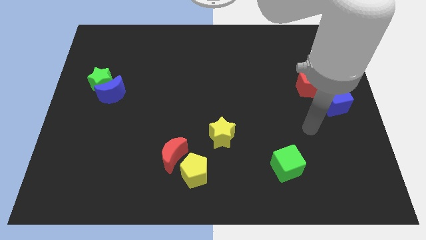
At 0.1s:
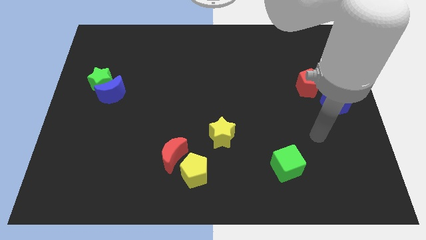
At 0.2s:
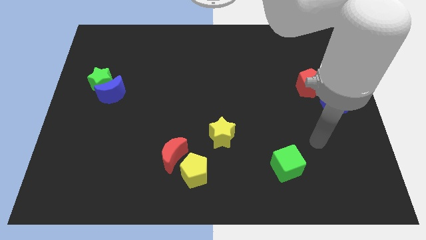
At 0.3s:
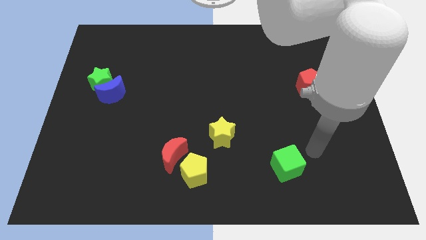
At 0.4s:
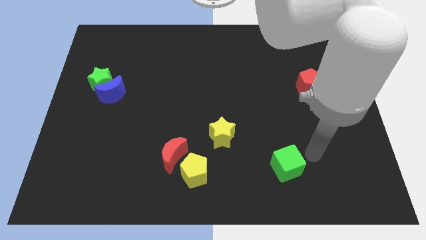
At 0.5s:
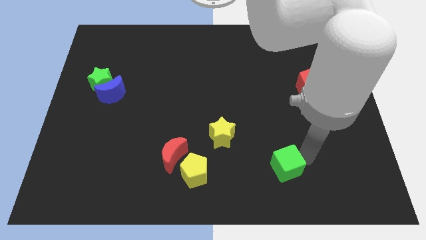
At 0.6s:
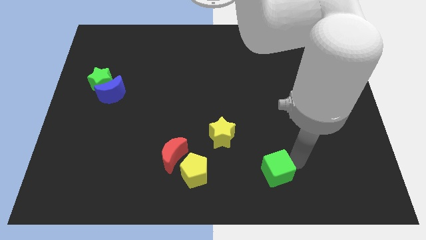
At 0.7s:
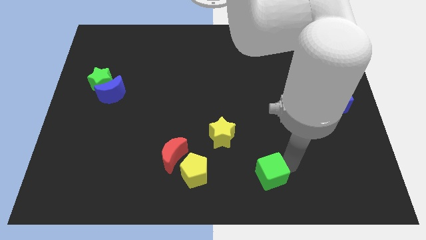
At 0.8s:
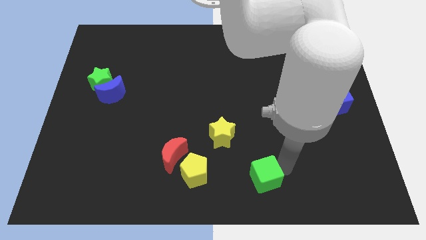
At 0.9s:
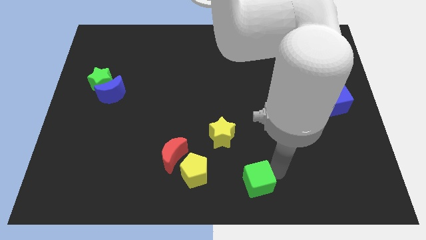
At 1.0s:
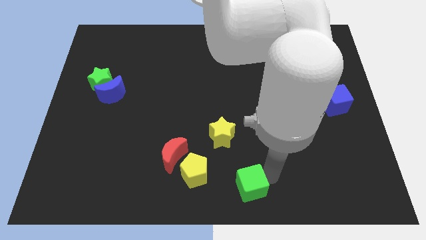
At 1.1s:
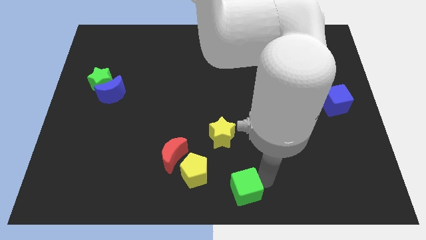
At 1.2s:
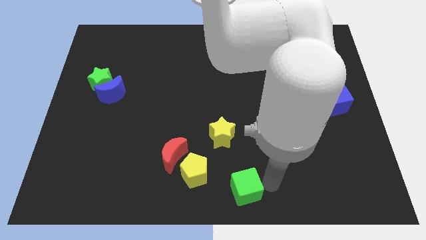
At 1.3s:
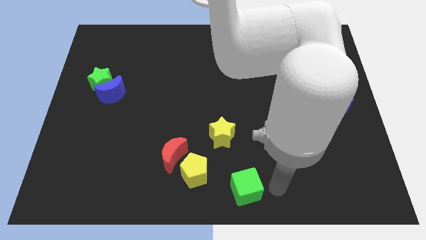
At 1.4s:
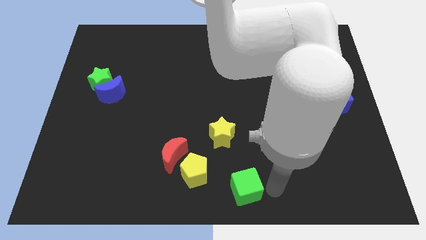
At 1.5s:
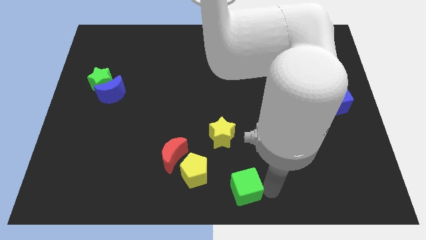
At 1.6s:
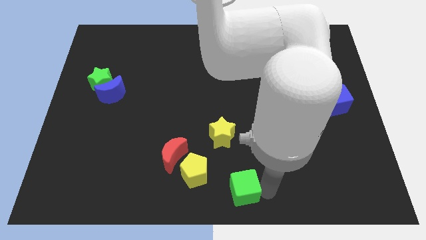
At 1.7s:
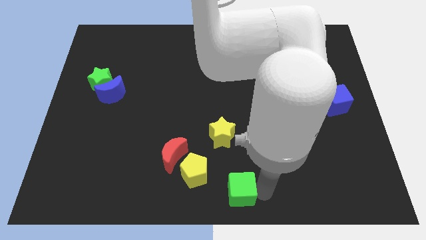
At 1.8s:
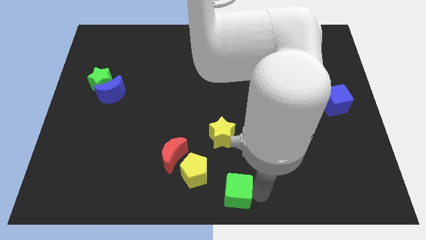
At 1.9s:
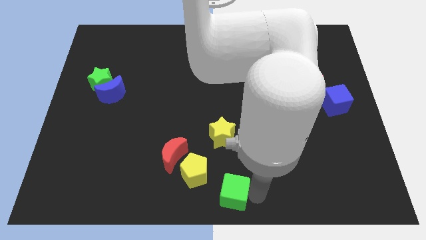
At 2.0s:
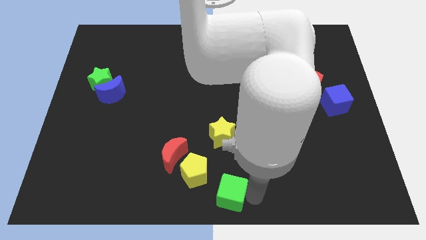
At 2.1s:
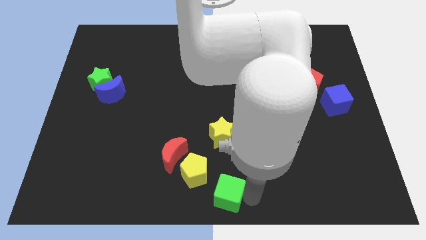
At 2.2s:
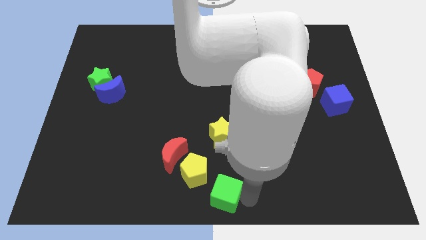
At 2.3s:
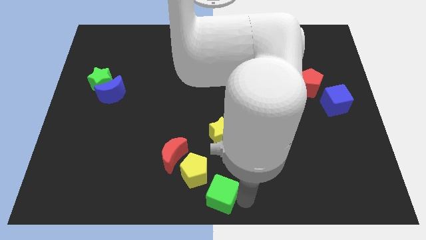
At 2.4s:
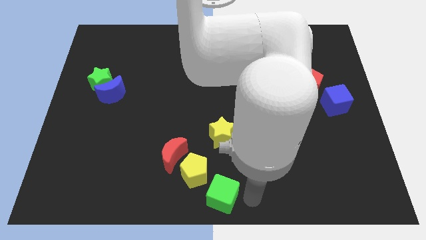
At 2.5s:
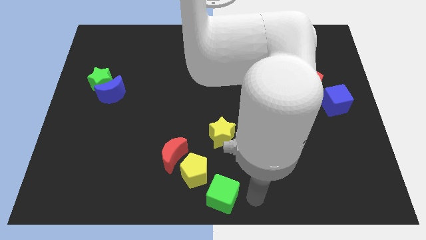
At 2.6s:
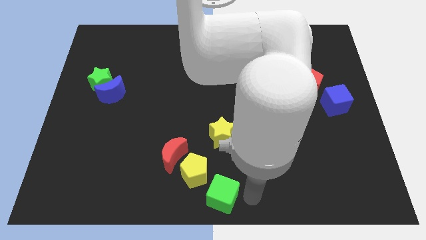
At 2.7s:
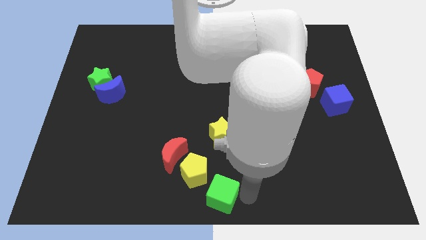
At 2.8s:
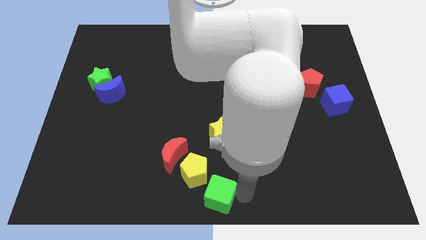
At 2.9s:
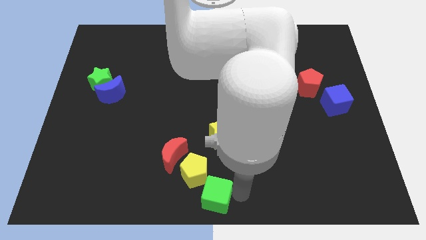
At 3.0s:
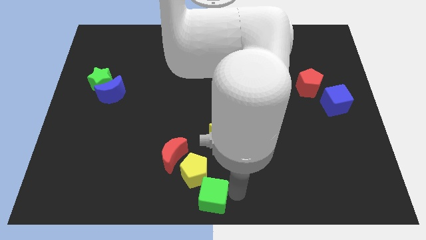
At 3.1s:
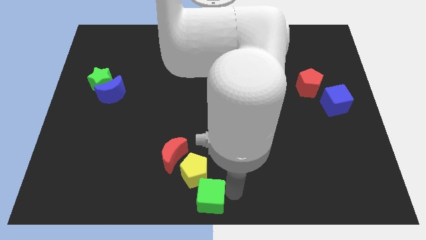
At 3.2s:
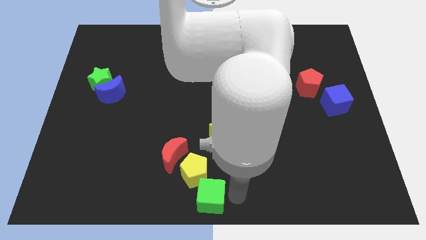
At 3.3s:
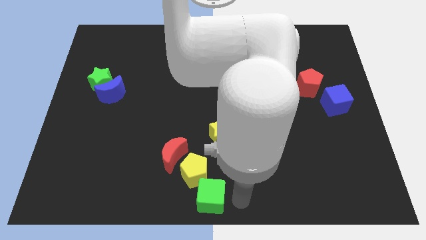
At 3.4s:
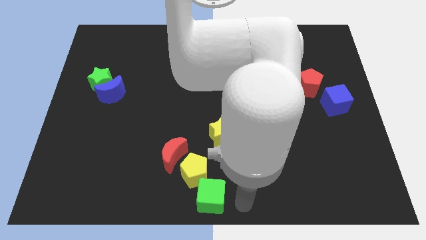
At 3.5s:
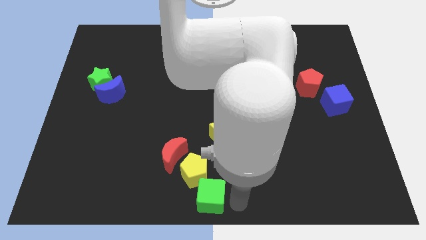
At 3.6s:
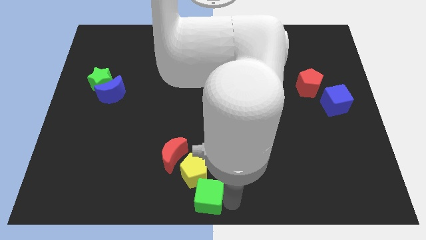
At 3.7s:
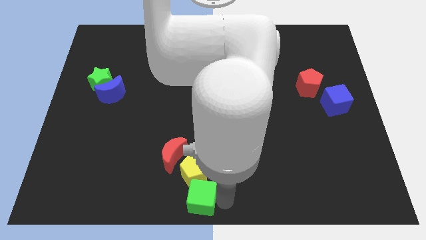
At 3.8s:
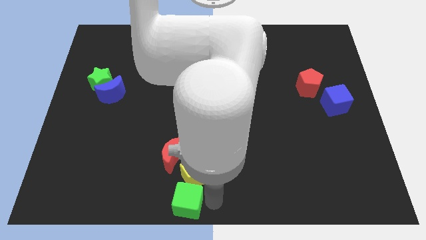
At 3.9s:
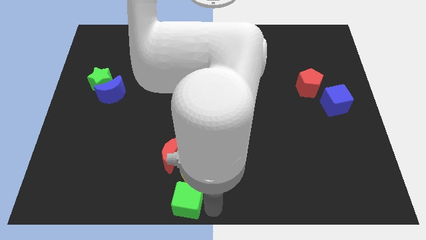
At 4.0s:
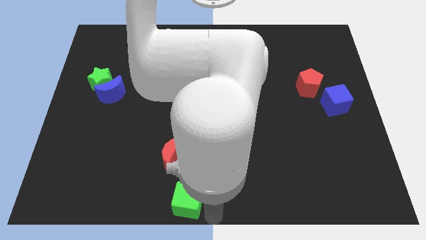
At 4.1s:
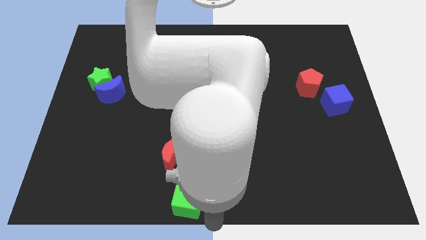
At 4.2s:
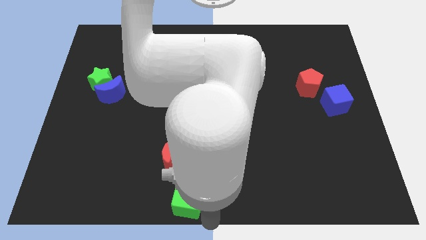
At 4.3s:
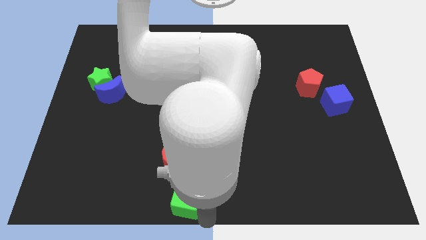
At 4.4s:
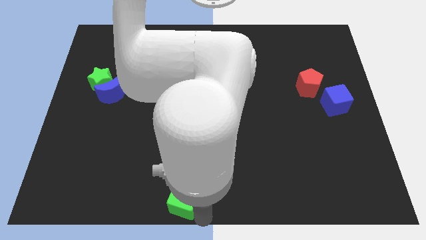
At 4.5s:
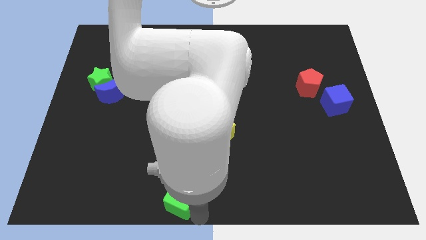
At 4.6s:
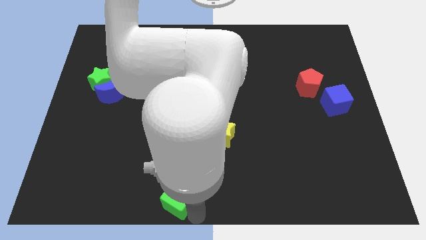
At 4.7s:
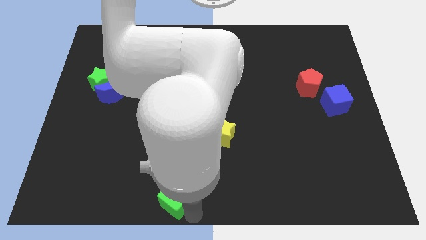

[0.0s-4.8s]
move the green cube to the left

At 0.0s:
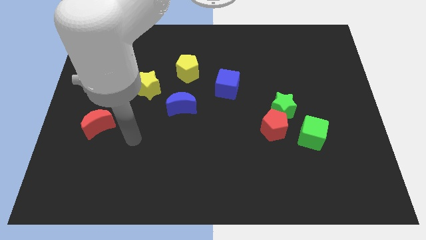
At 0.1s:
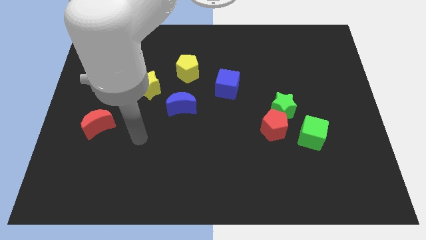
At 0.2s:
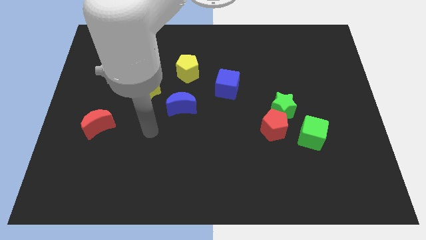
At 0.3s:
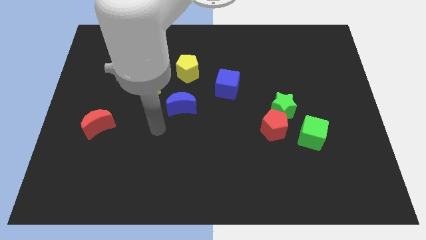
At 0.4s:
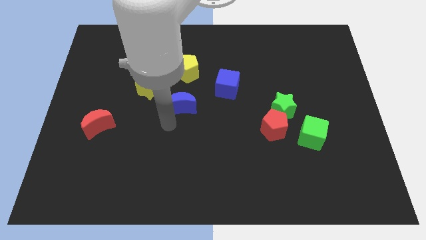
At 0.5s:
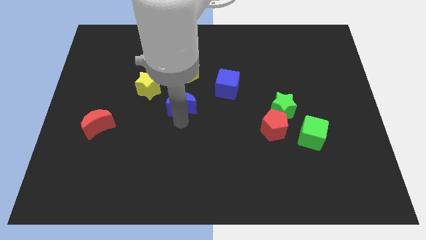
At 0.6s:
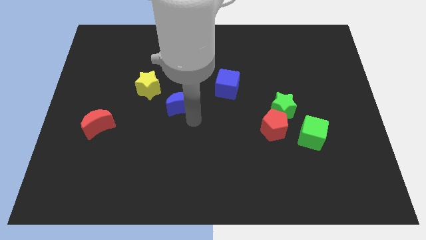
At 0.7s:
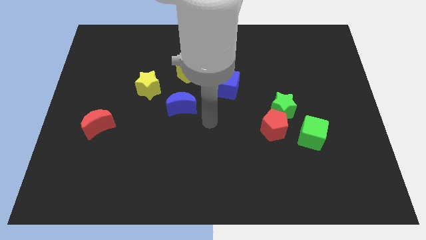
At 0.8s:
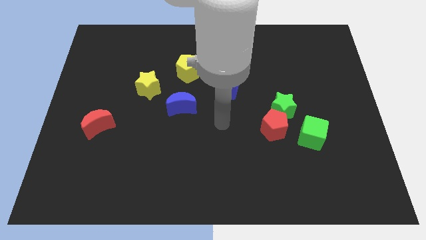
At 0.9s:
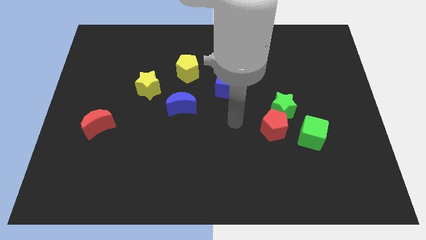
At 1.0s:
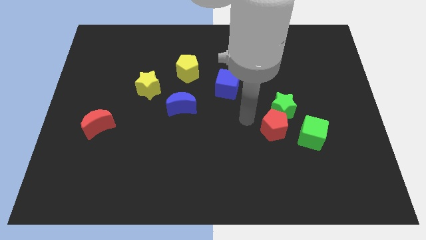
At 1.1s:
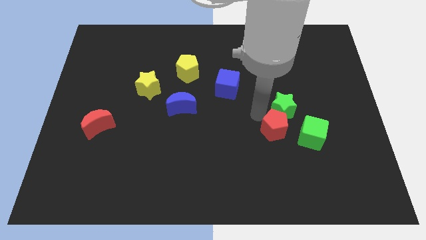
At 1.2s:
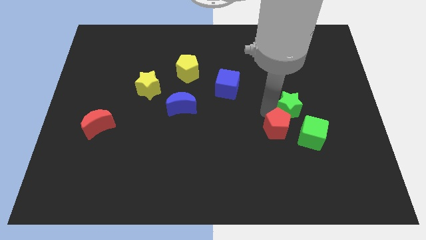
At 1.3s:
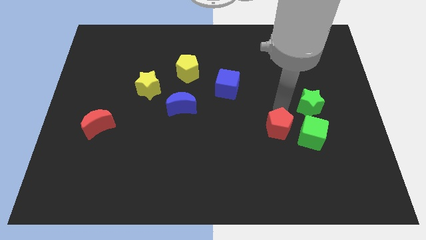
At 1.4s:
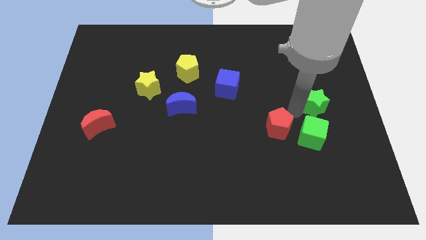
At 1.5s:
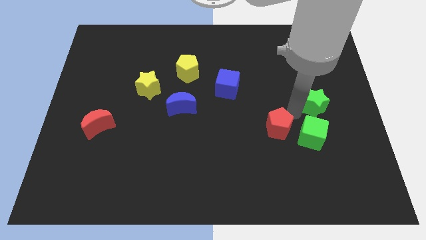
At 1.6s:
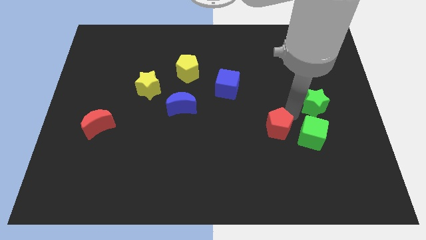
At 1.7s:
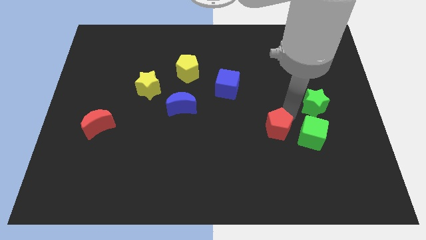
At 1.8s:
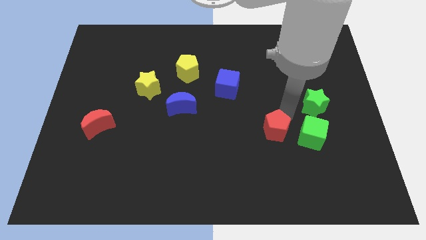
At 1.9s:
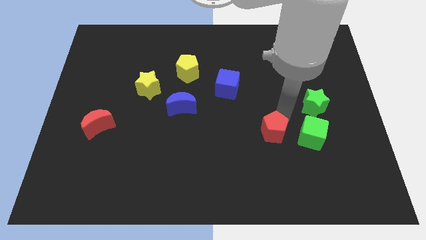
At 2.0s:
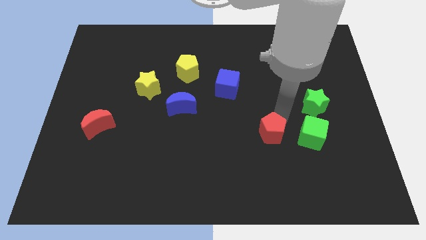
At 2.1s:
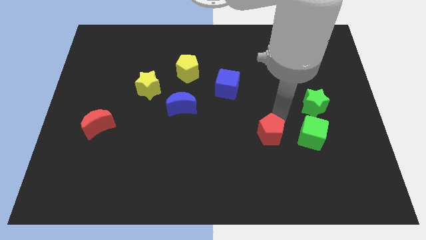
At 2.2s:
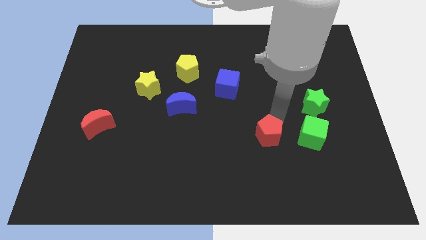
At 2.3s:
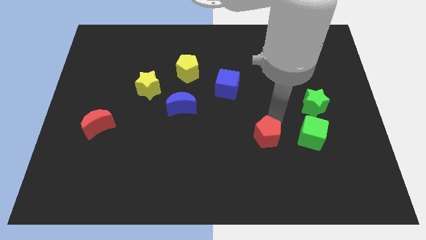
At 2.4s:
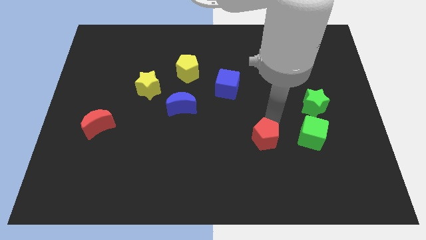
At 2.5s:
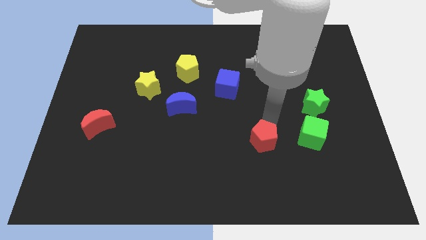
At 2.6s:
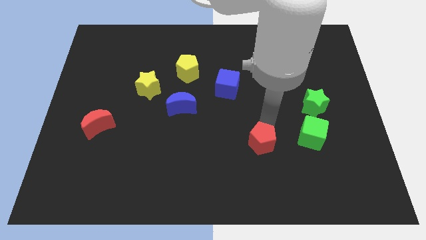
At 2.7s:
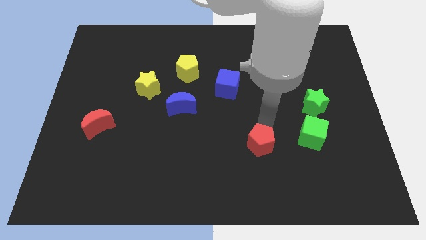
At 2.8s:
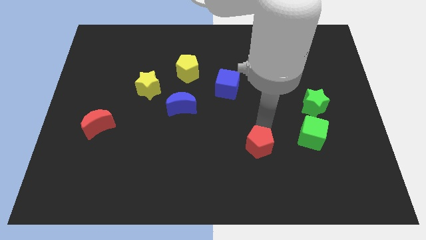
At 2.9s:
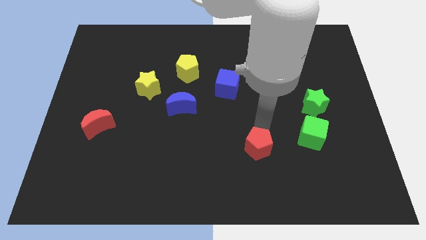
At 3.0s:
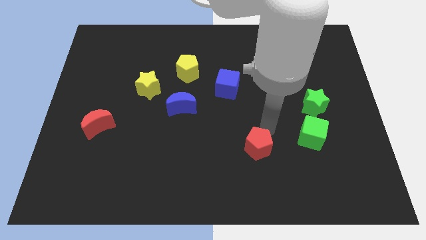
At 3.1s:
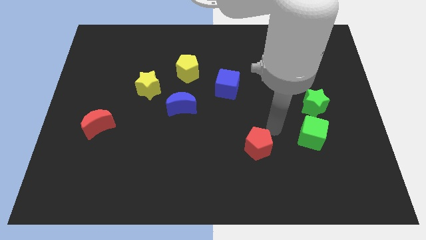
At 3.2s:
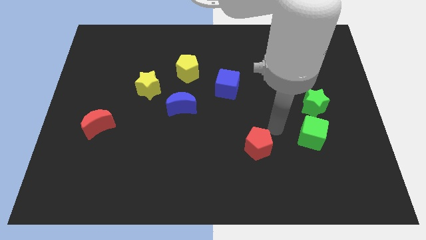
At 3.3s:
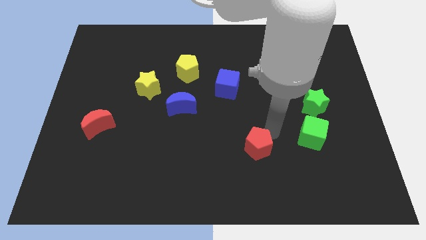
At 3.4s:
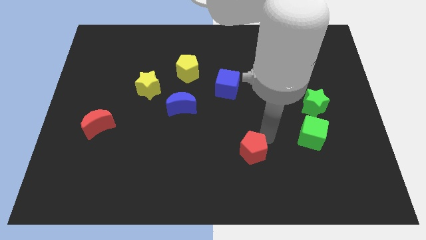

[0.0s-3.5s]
slightly move the red pentagon down and then left
